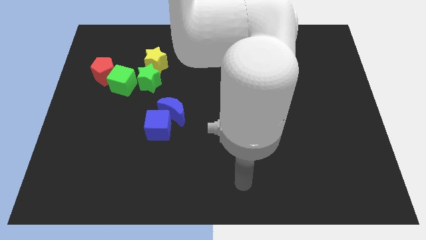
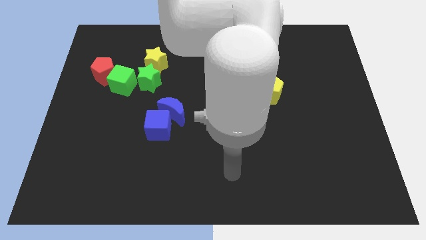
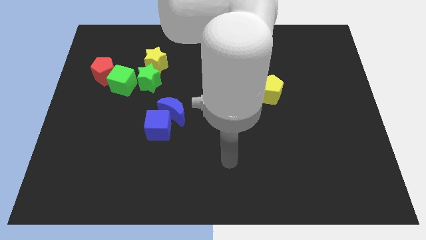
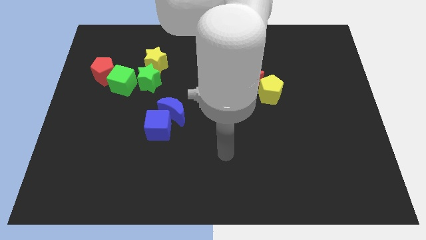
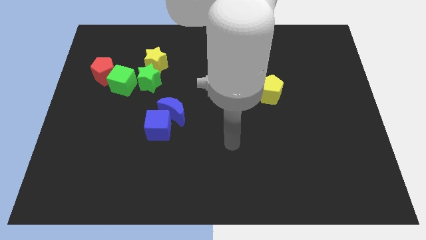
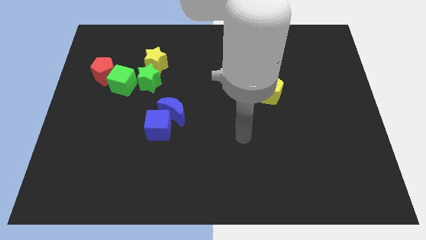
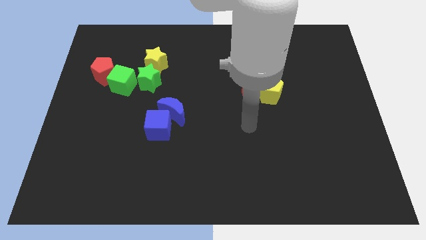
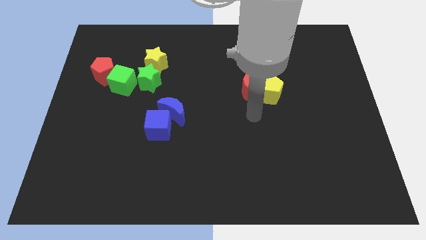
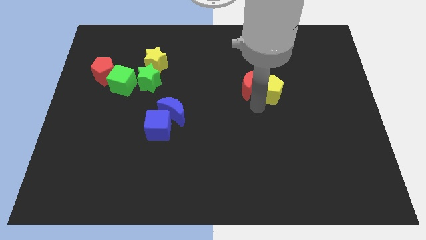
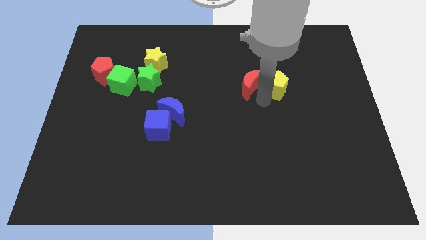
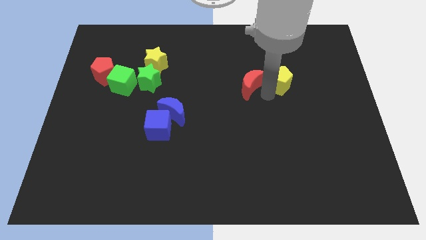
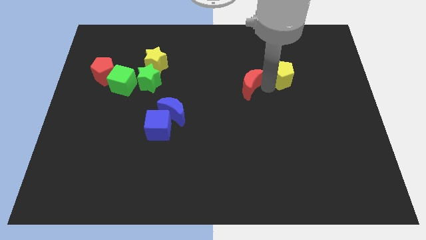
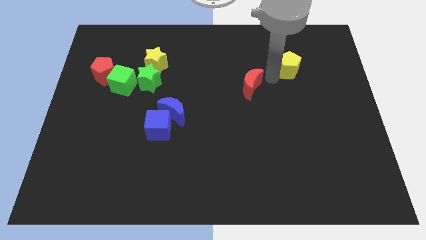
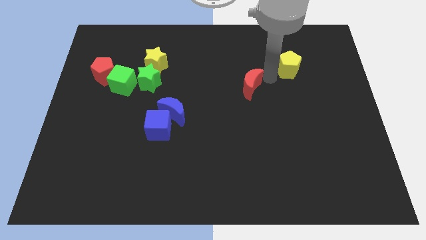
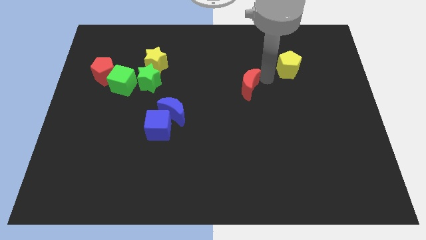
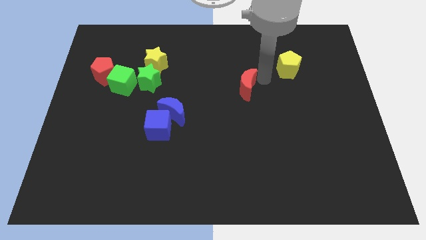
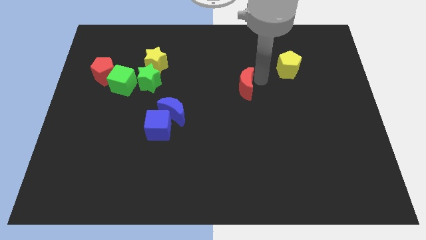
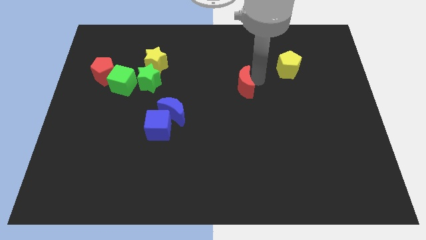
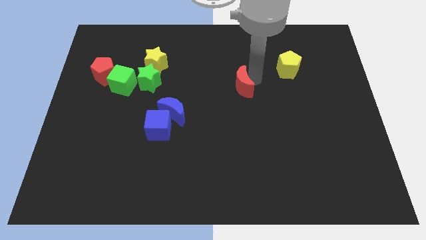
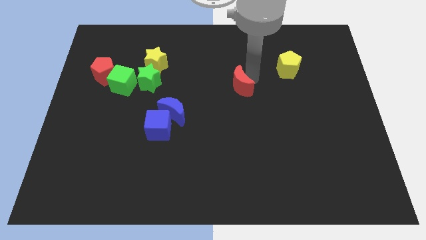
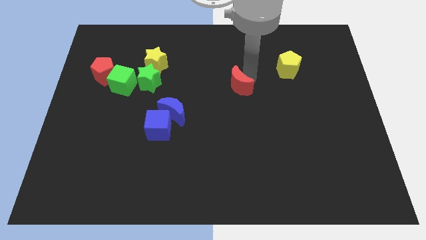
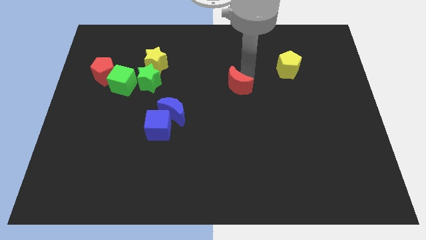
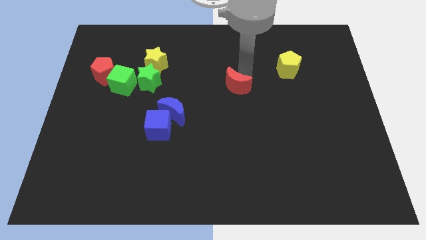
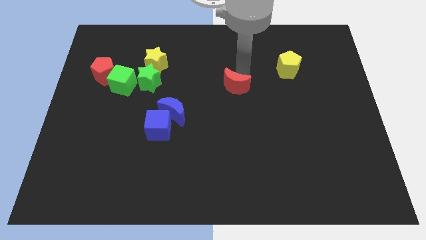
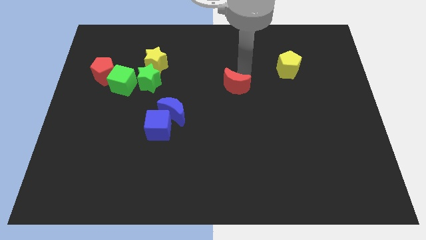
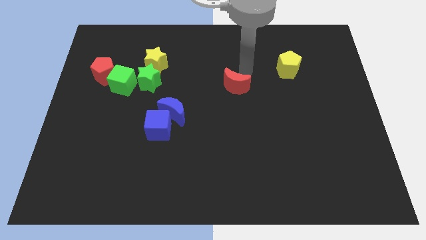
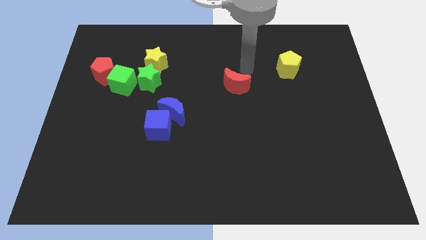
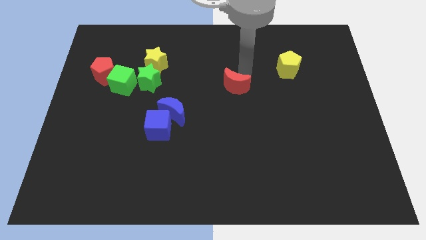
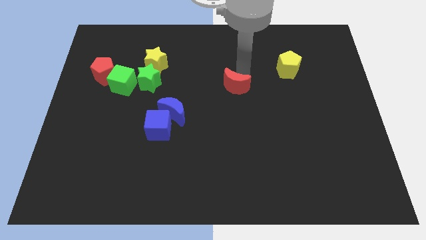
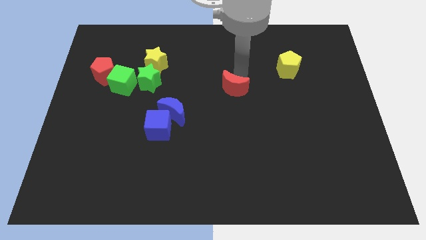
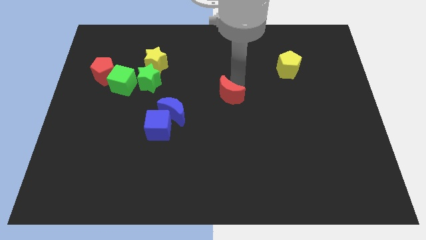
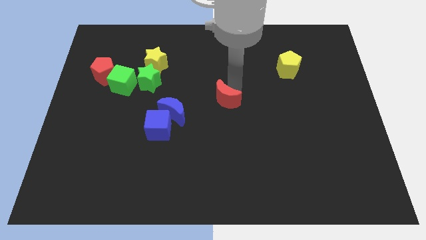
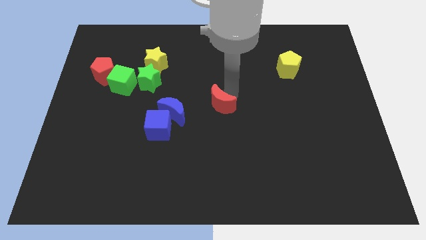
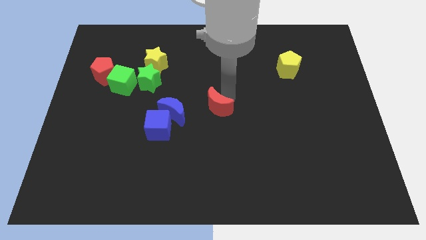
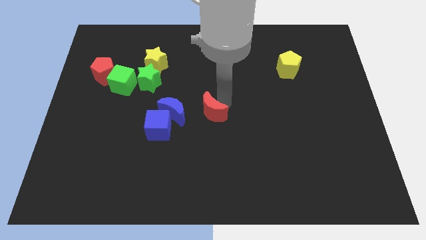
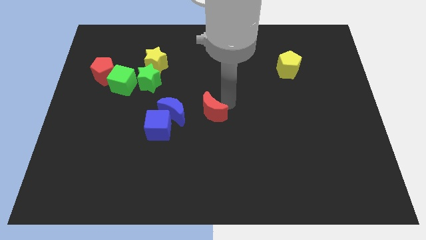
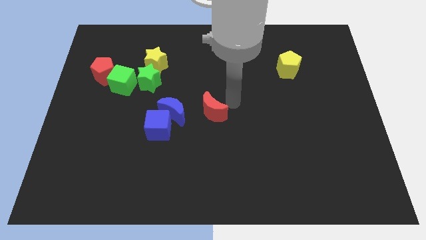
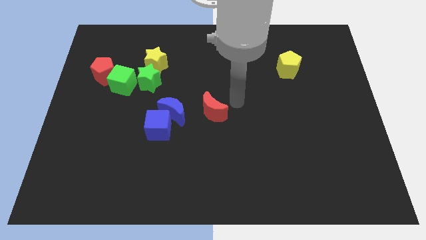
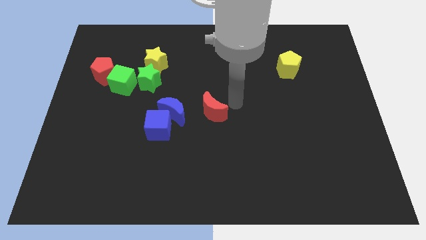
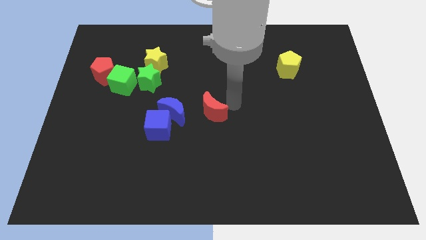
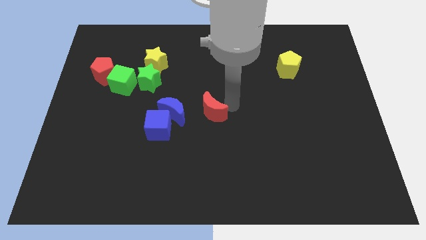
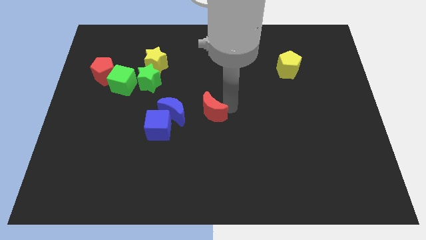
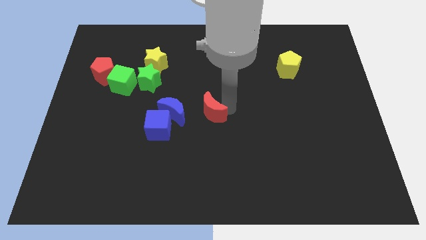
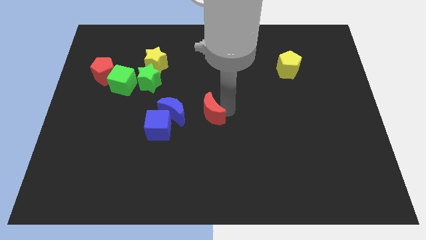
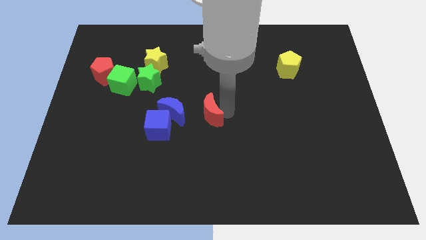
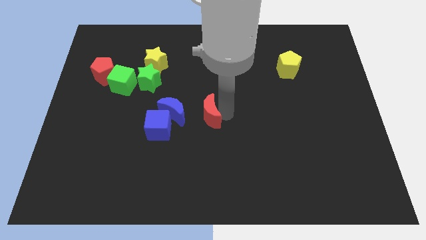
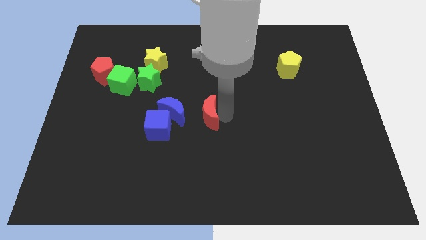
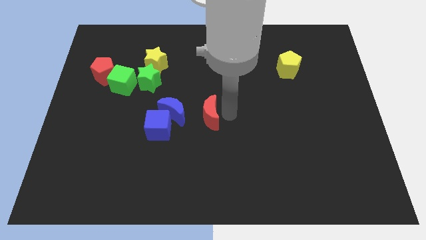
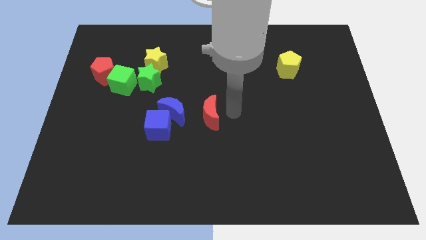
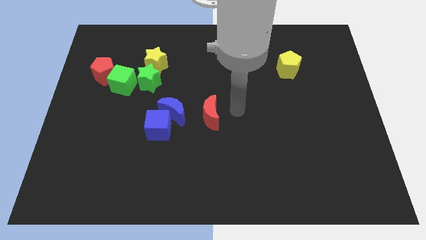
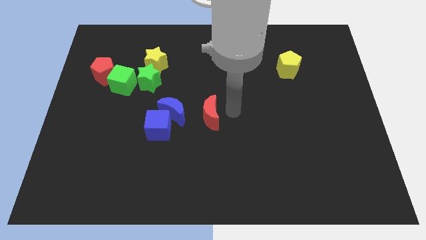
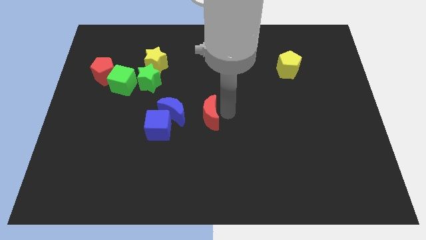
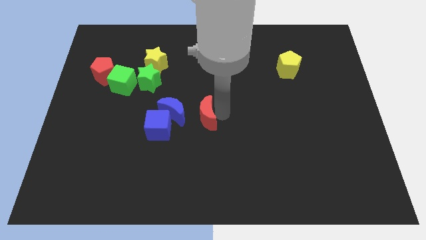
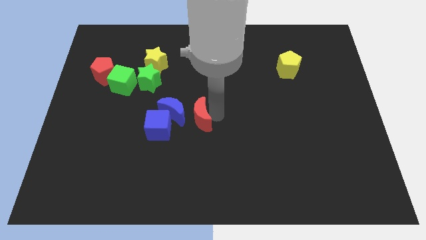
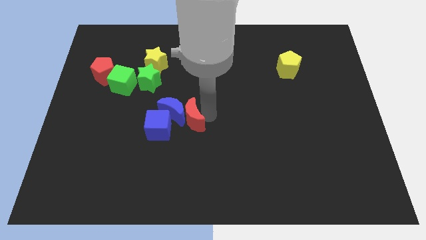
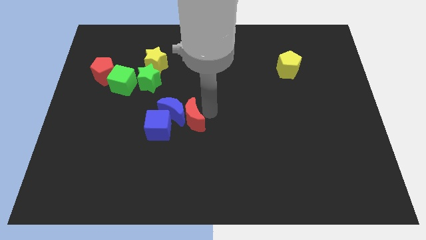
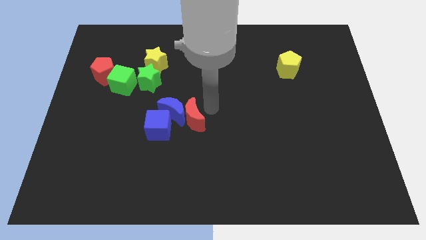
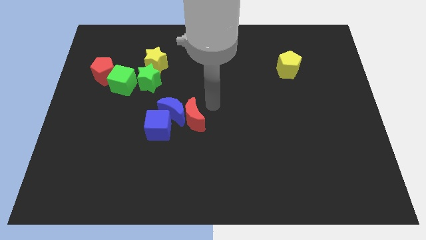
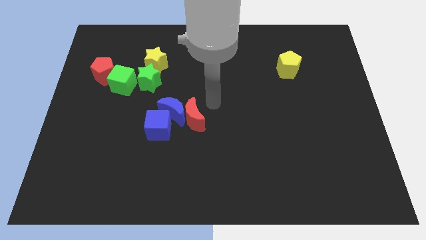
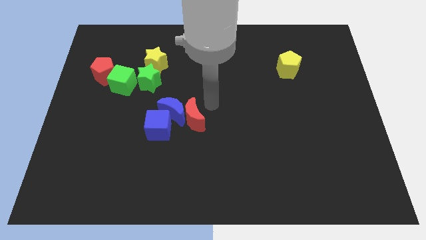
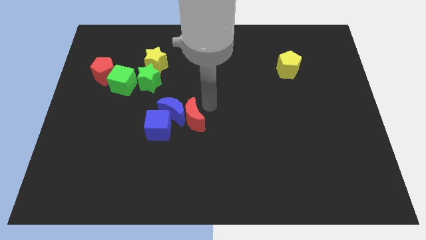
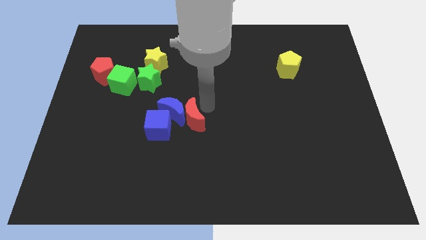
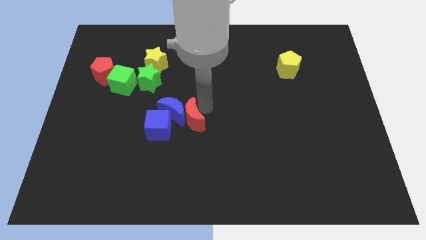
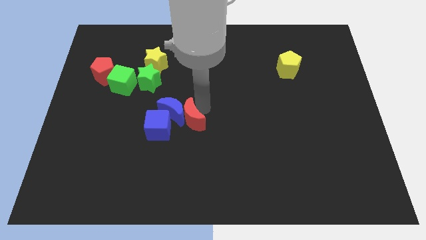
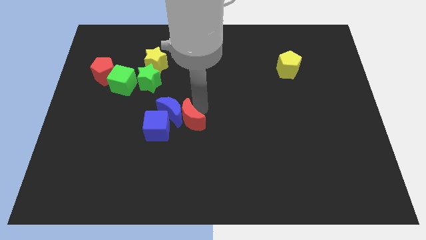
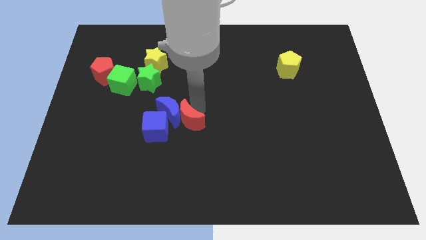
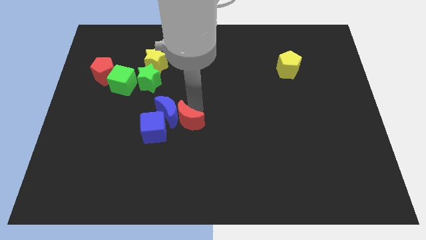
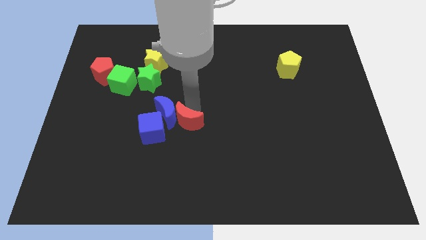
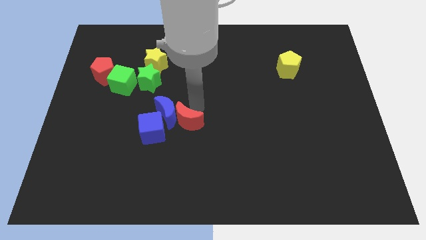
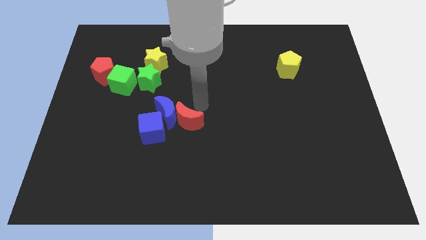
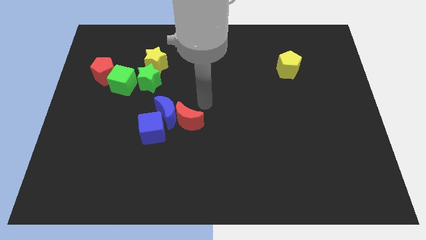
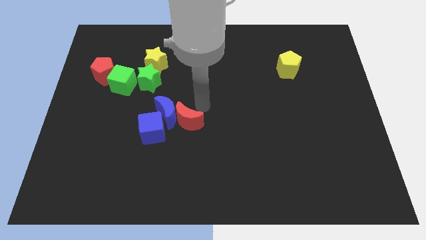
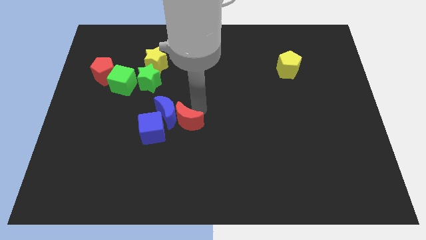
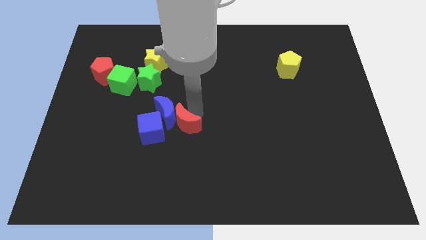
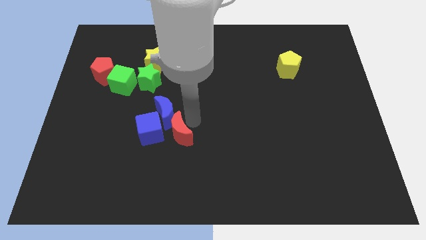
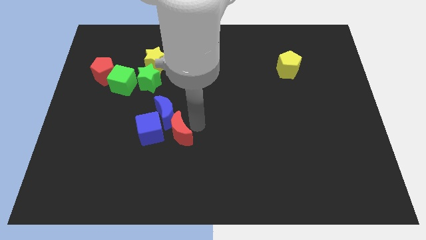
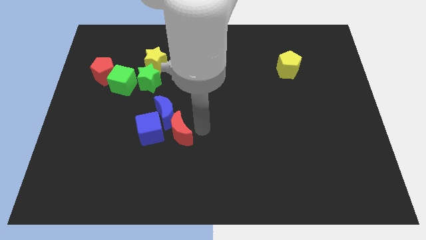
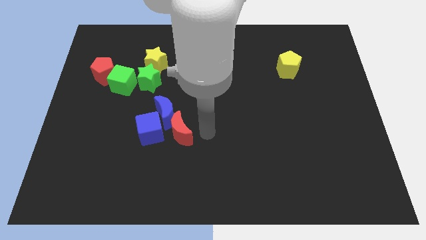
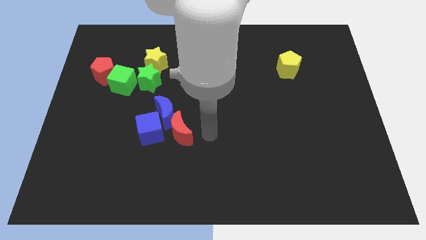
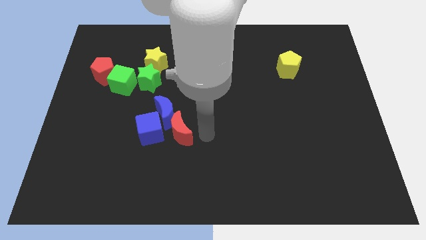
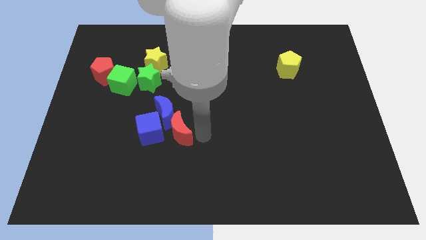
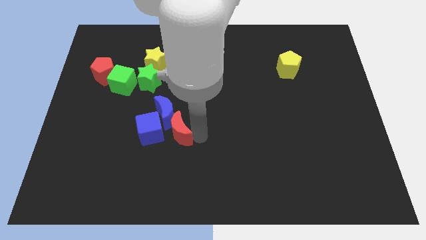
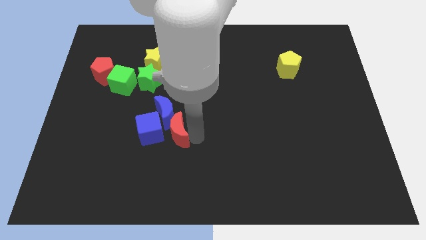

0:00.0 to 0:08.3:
push the red moon close to the blue cube
